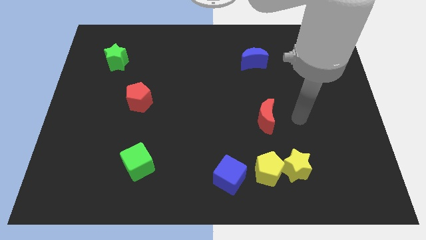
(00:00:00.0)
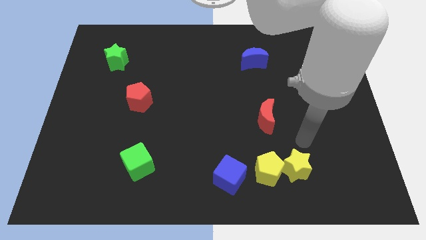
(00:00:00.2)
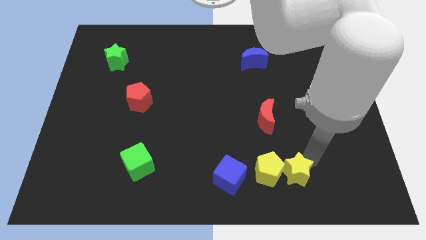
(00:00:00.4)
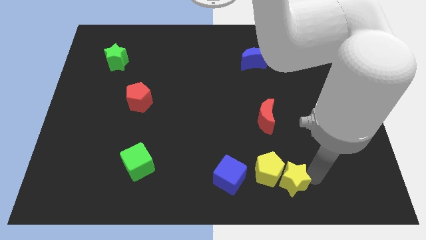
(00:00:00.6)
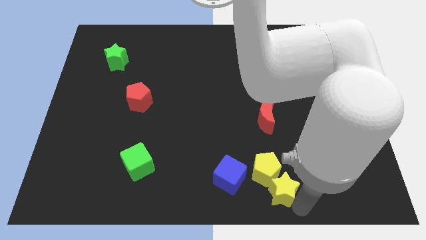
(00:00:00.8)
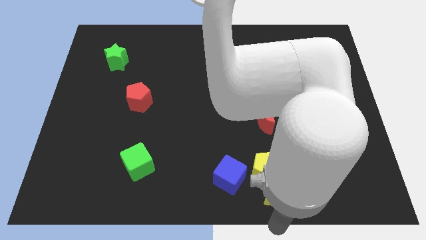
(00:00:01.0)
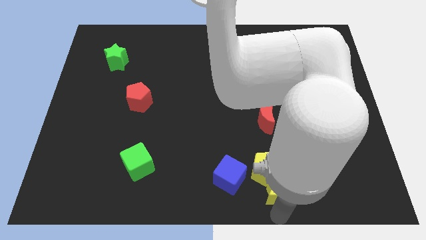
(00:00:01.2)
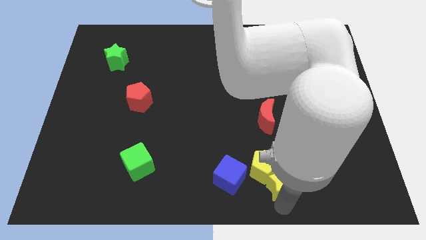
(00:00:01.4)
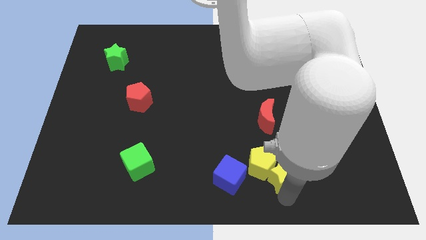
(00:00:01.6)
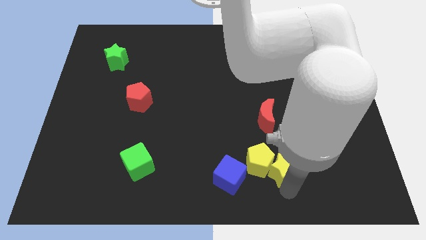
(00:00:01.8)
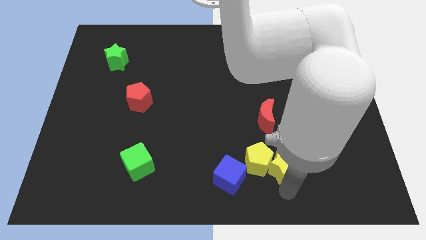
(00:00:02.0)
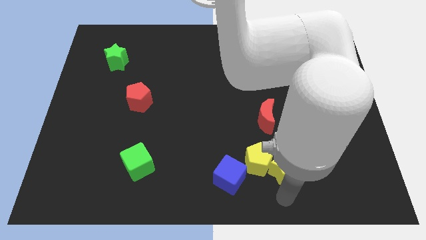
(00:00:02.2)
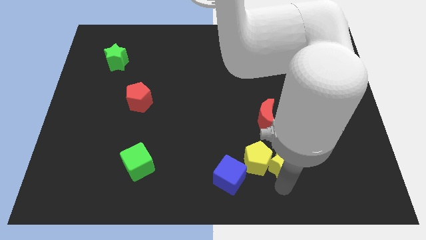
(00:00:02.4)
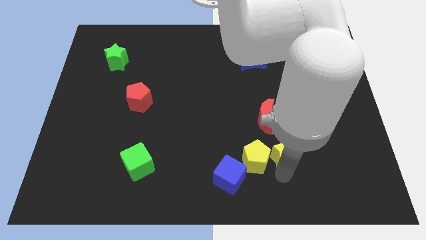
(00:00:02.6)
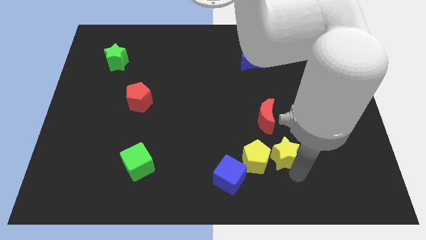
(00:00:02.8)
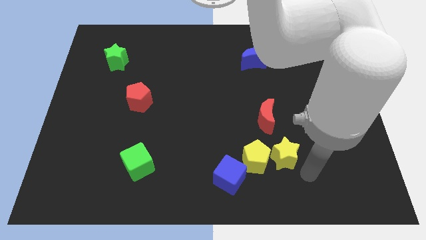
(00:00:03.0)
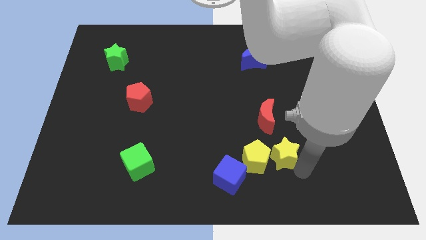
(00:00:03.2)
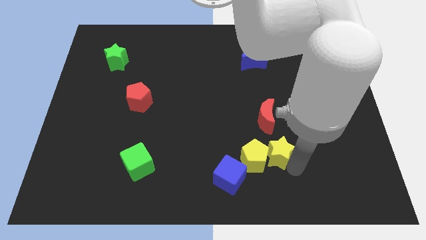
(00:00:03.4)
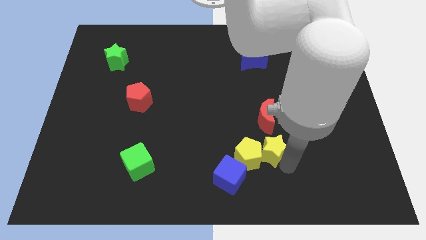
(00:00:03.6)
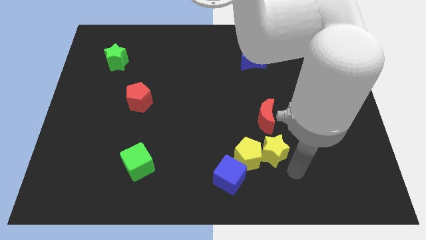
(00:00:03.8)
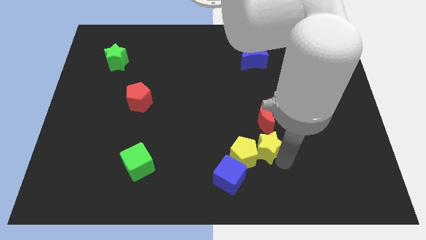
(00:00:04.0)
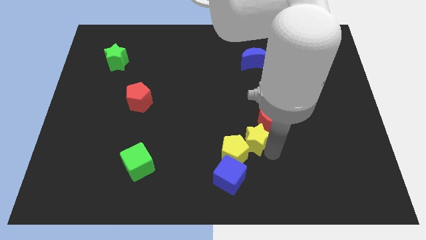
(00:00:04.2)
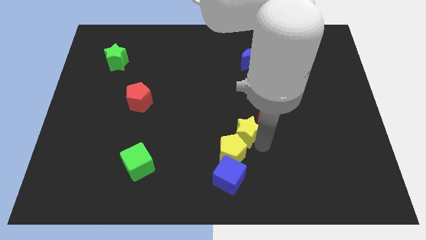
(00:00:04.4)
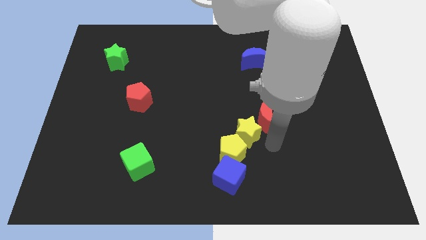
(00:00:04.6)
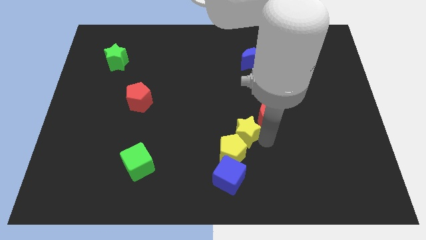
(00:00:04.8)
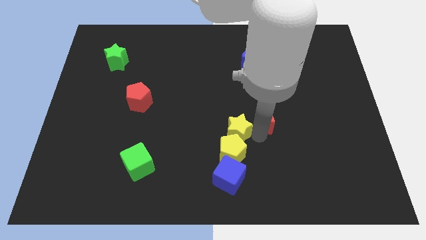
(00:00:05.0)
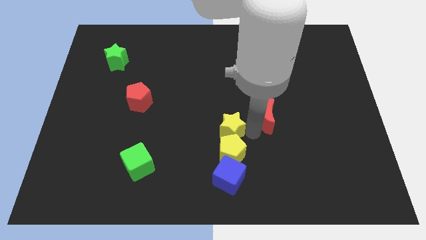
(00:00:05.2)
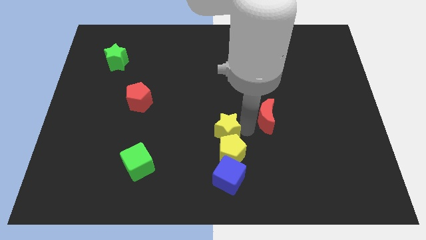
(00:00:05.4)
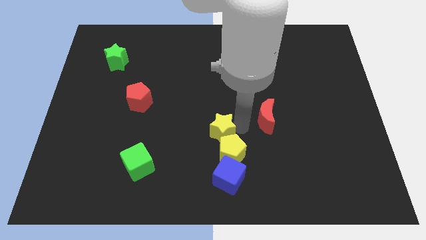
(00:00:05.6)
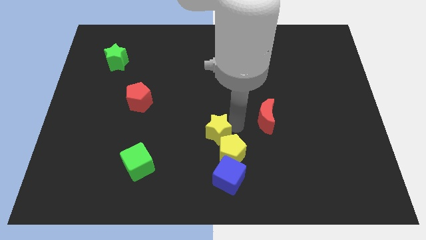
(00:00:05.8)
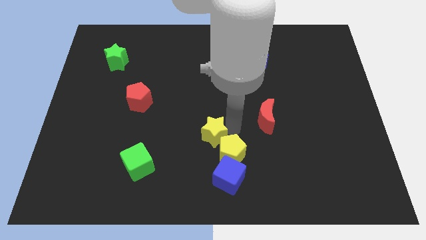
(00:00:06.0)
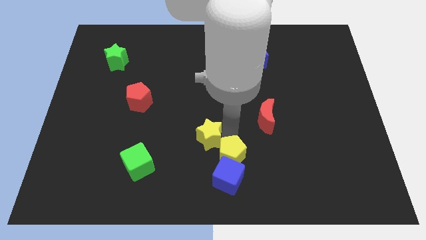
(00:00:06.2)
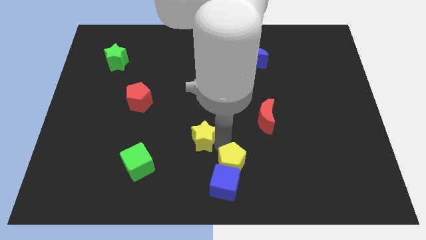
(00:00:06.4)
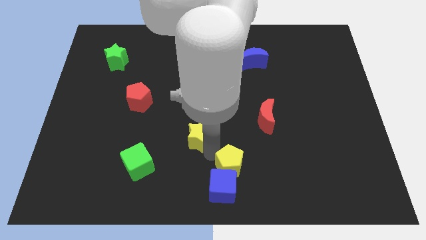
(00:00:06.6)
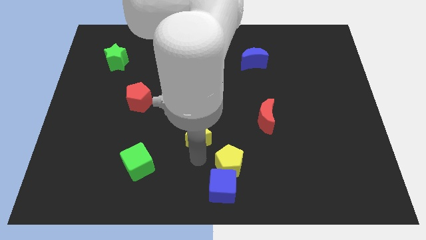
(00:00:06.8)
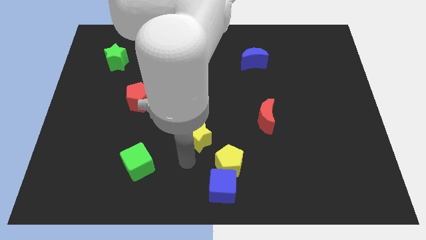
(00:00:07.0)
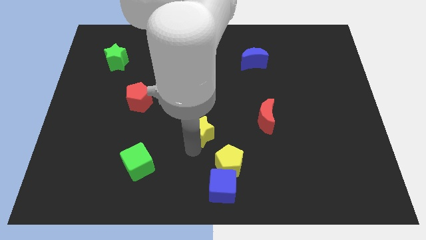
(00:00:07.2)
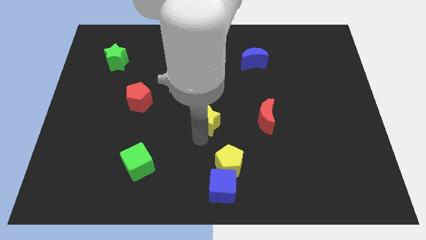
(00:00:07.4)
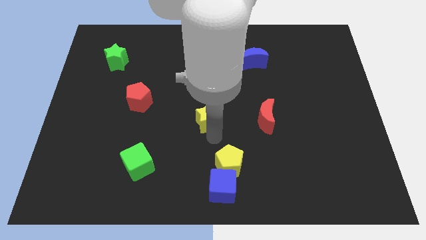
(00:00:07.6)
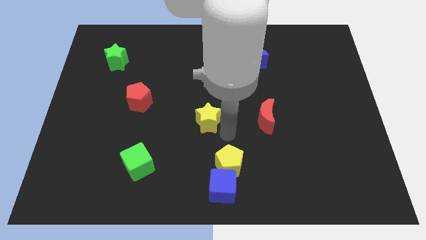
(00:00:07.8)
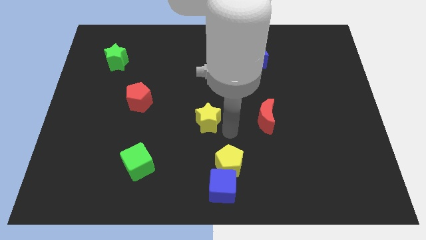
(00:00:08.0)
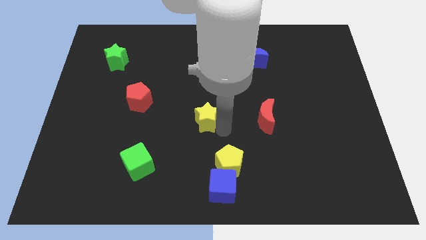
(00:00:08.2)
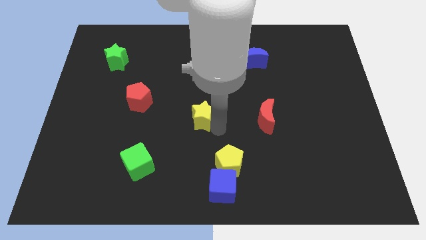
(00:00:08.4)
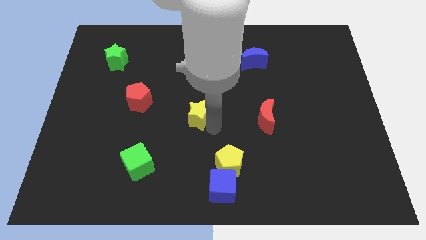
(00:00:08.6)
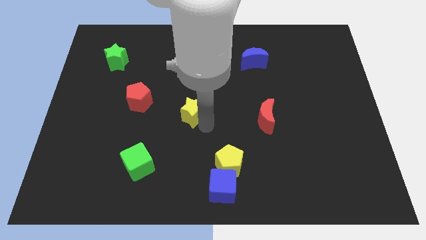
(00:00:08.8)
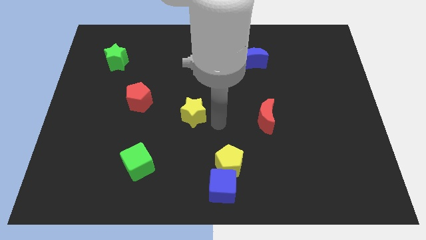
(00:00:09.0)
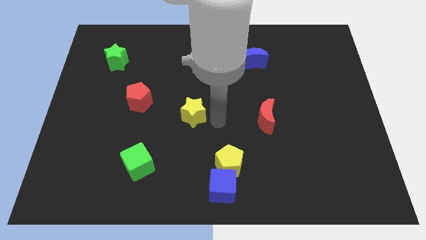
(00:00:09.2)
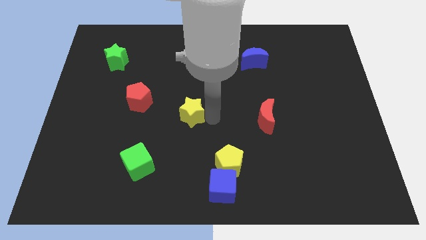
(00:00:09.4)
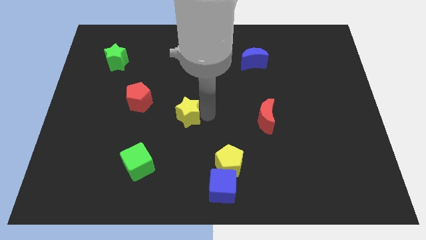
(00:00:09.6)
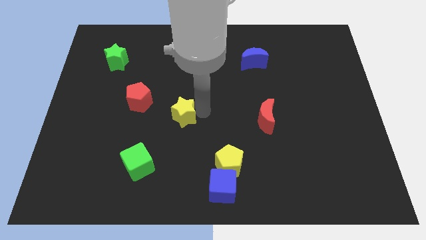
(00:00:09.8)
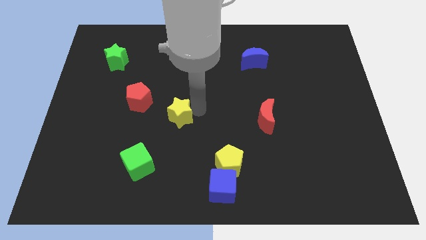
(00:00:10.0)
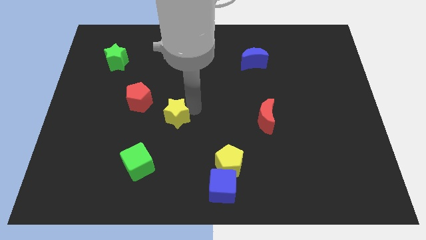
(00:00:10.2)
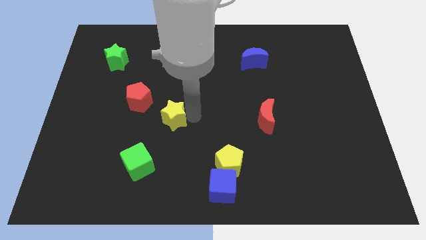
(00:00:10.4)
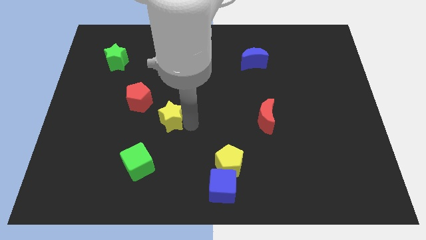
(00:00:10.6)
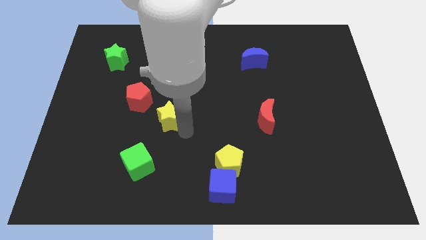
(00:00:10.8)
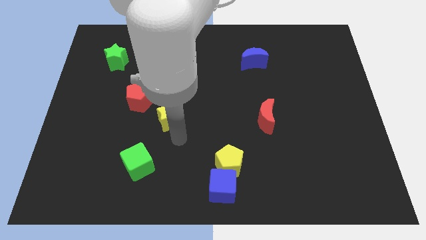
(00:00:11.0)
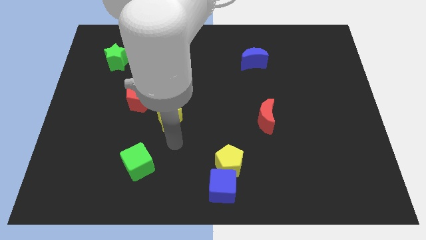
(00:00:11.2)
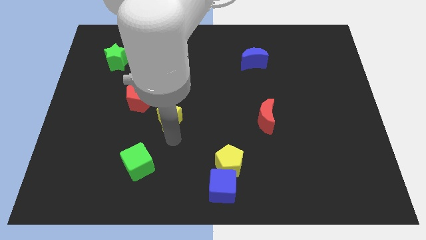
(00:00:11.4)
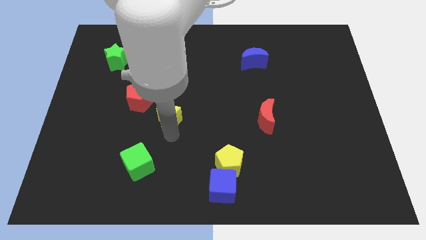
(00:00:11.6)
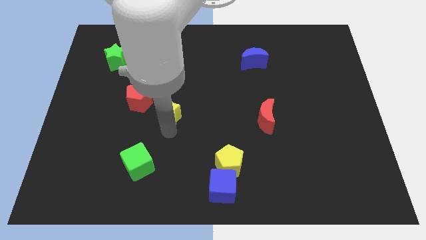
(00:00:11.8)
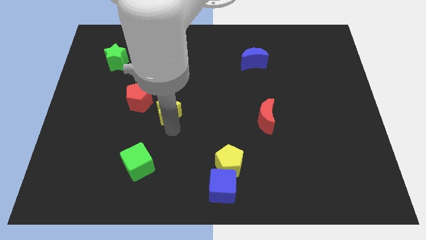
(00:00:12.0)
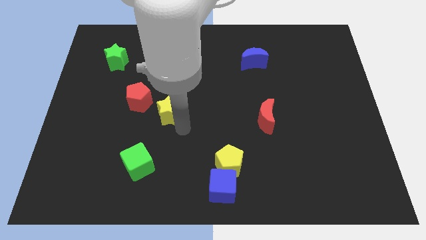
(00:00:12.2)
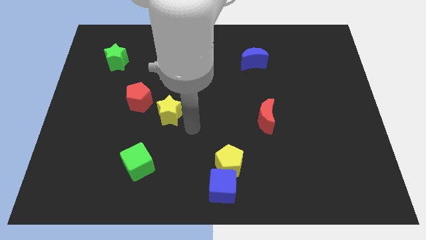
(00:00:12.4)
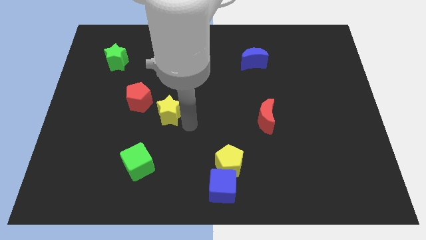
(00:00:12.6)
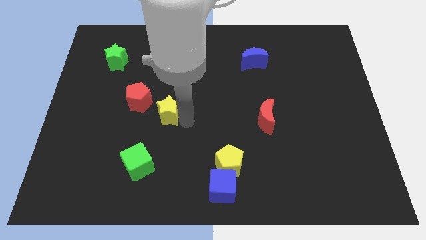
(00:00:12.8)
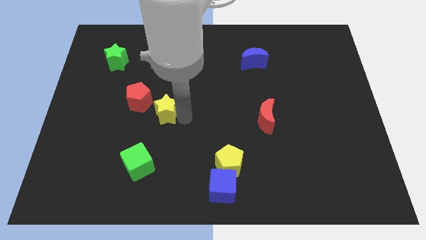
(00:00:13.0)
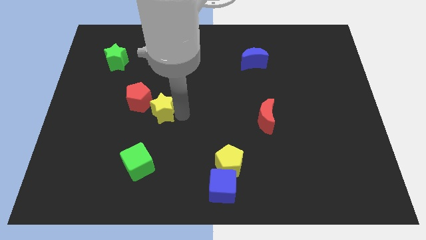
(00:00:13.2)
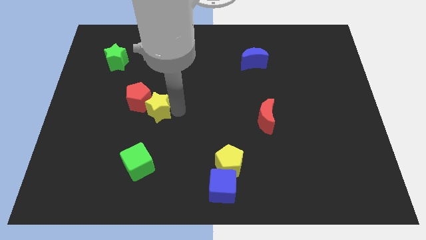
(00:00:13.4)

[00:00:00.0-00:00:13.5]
put the yellow star next to the red pentagon
